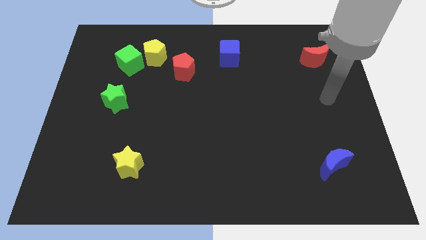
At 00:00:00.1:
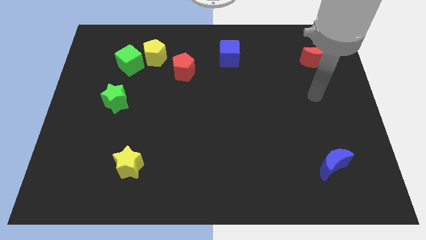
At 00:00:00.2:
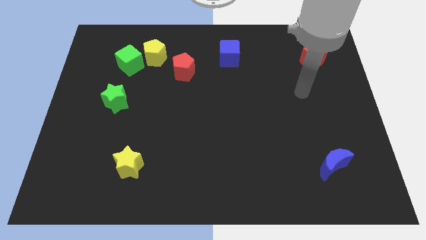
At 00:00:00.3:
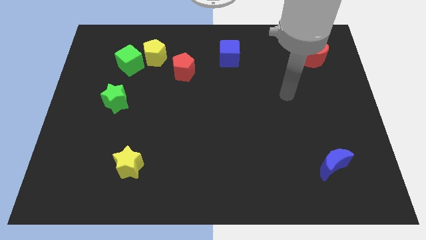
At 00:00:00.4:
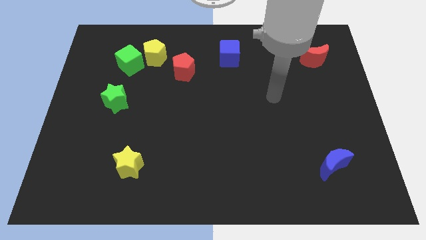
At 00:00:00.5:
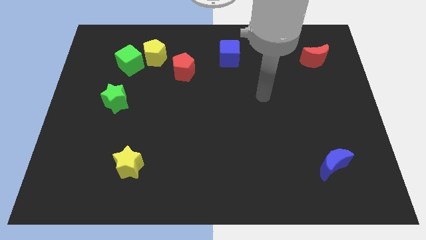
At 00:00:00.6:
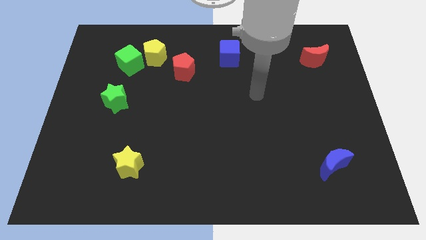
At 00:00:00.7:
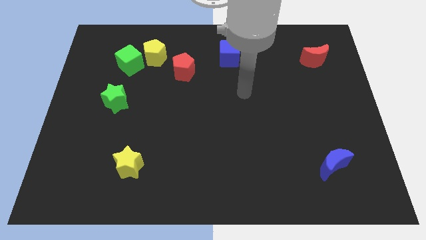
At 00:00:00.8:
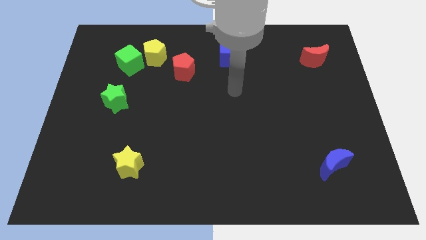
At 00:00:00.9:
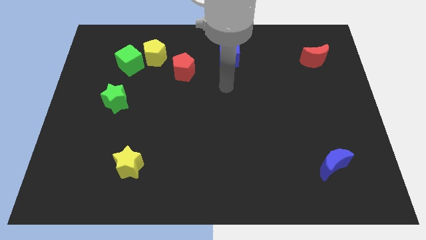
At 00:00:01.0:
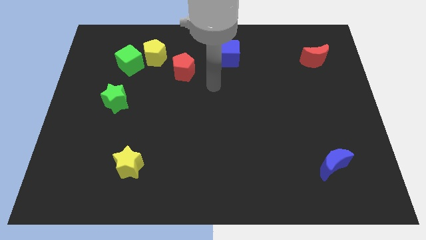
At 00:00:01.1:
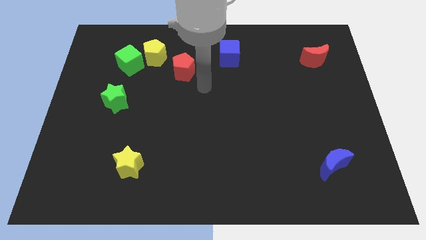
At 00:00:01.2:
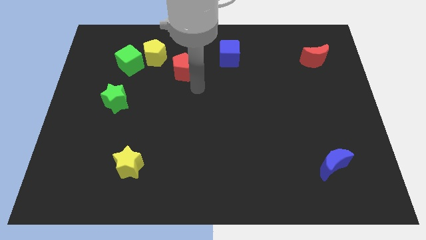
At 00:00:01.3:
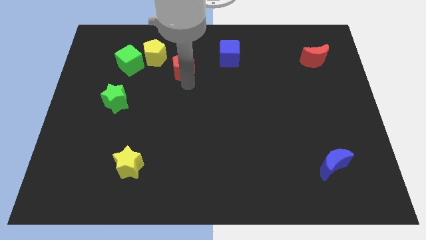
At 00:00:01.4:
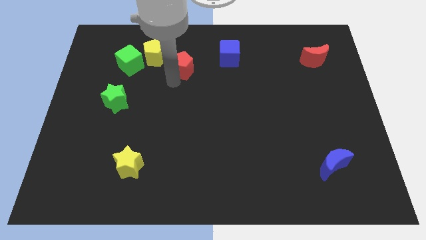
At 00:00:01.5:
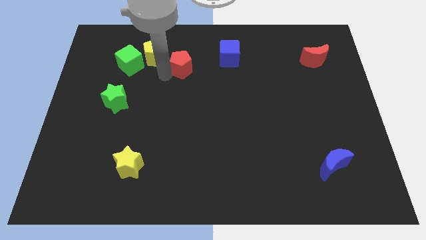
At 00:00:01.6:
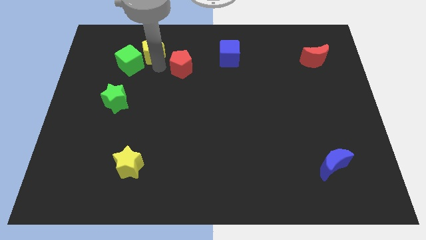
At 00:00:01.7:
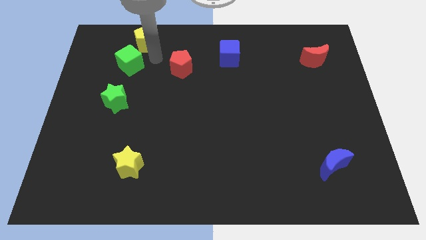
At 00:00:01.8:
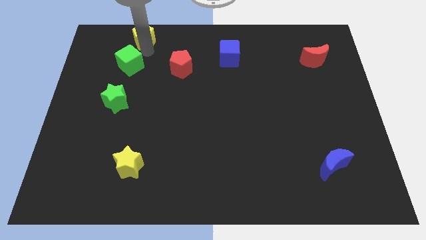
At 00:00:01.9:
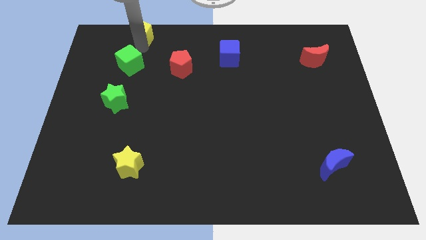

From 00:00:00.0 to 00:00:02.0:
move the green cube away from the yellow pentagon

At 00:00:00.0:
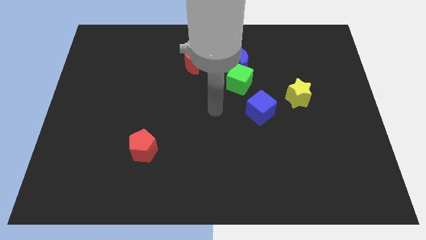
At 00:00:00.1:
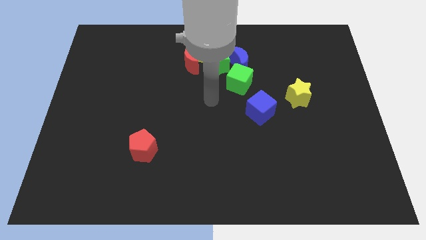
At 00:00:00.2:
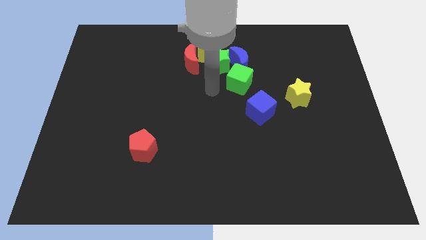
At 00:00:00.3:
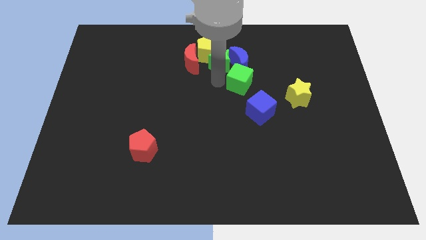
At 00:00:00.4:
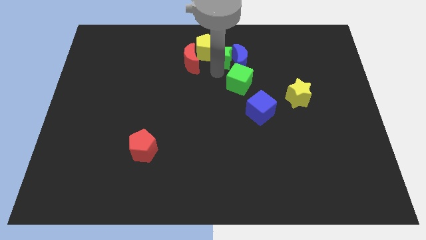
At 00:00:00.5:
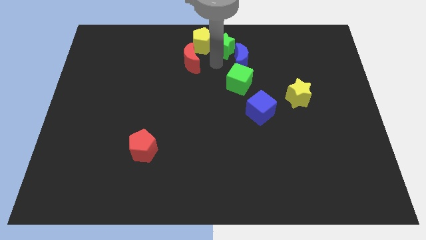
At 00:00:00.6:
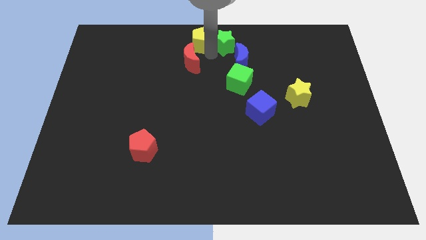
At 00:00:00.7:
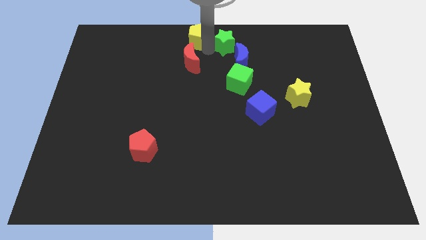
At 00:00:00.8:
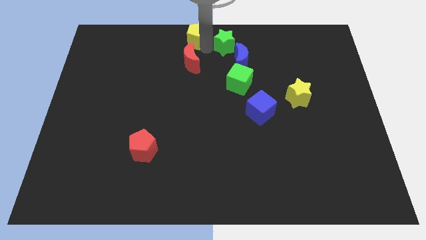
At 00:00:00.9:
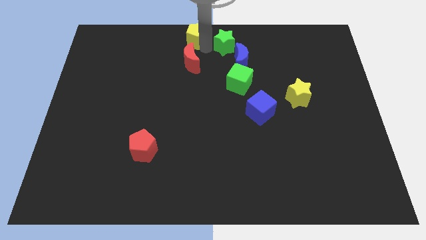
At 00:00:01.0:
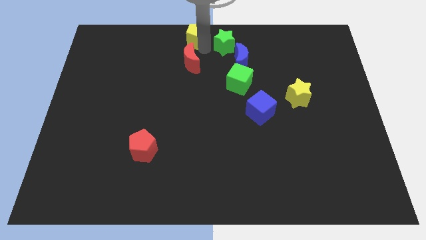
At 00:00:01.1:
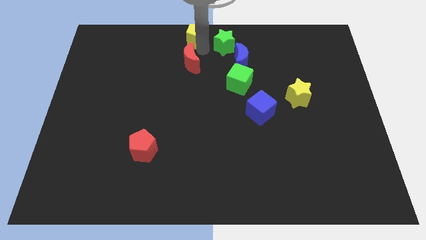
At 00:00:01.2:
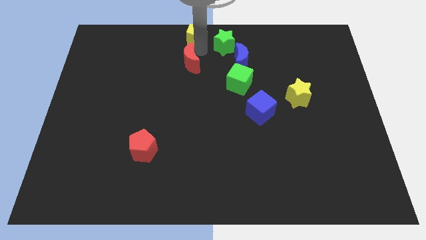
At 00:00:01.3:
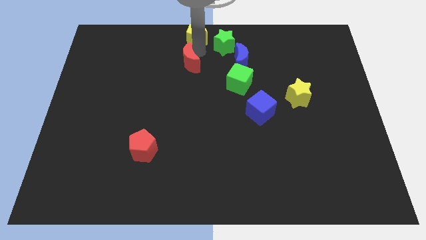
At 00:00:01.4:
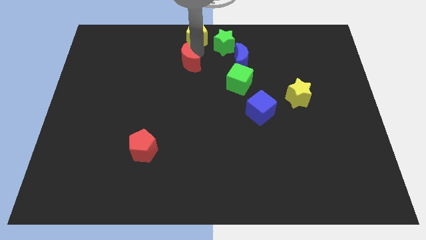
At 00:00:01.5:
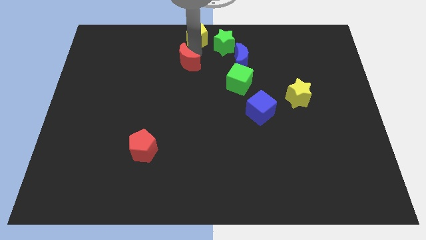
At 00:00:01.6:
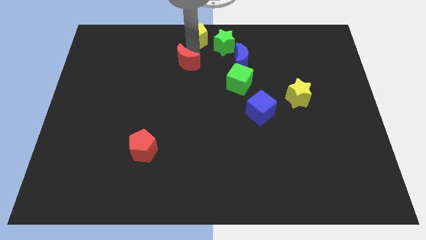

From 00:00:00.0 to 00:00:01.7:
move the red moon away from the yellow pentagon and green star

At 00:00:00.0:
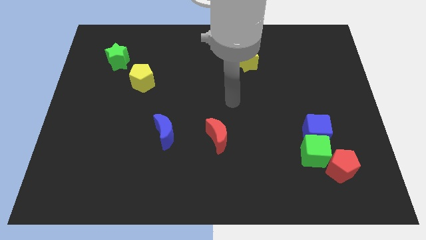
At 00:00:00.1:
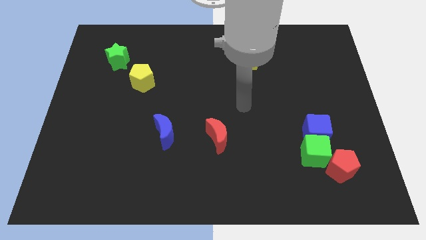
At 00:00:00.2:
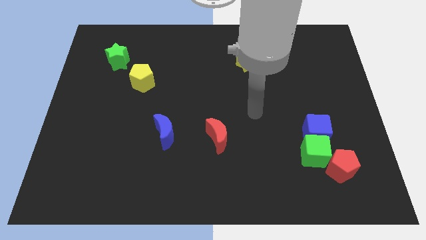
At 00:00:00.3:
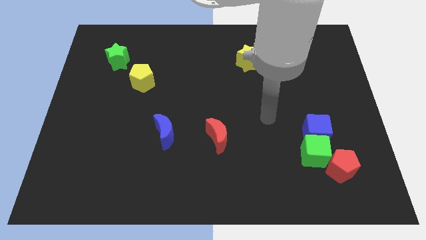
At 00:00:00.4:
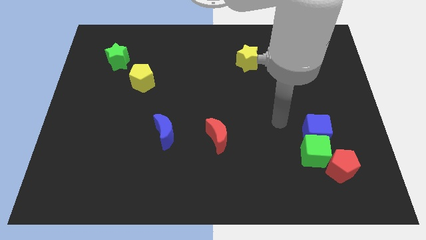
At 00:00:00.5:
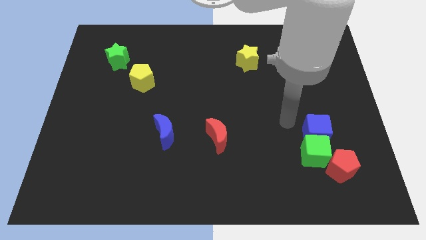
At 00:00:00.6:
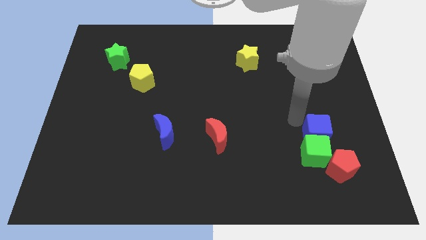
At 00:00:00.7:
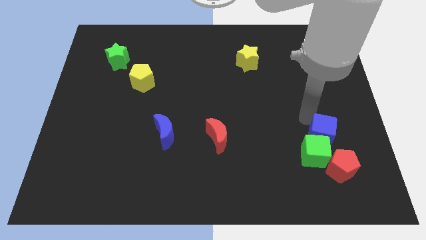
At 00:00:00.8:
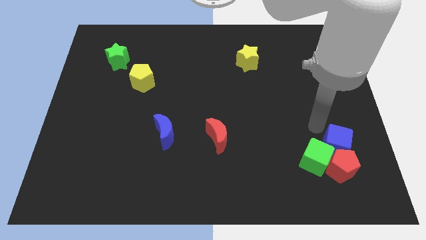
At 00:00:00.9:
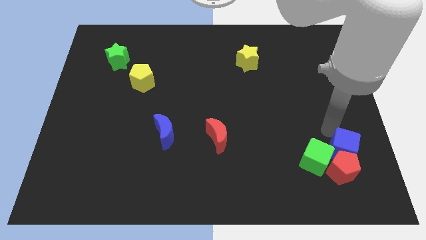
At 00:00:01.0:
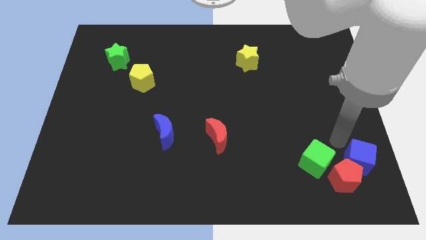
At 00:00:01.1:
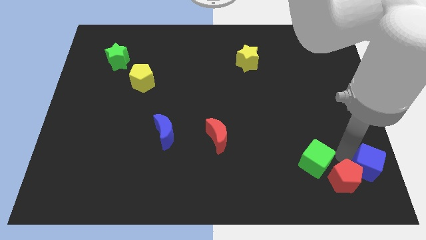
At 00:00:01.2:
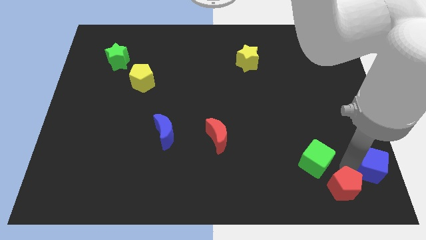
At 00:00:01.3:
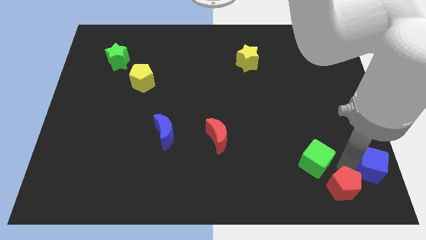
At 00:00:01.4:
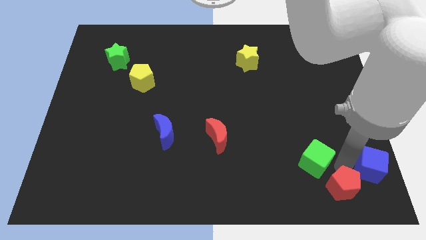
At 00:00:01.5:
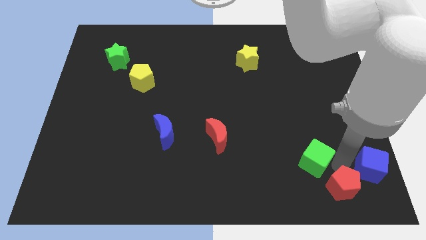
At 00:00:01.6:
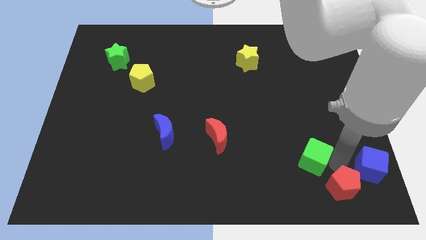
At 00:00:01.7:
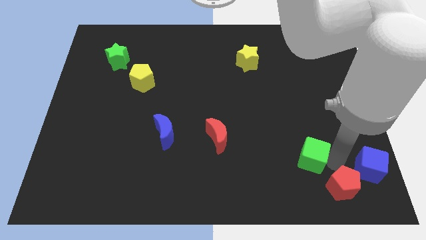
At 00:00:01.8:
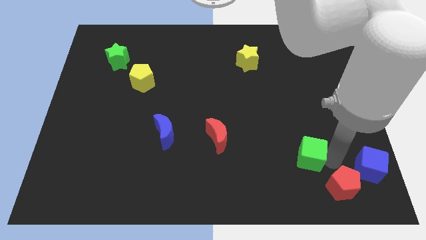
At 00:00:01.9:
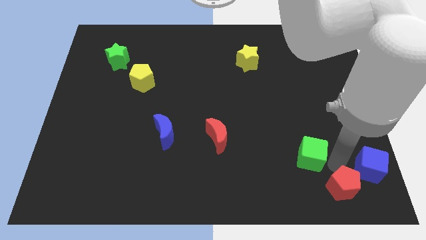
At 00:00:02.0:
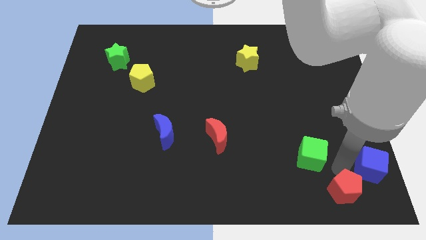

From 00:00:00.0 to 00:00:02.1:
move the green cube away from the blue cube and red pentagon

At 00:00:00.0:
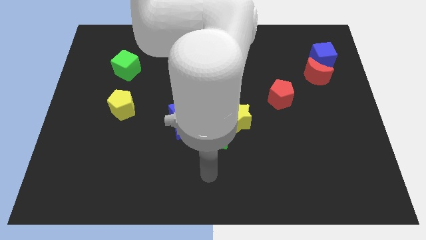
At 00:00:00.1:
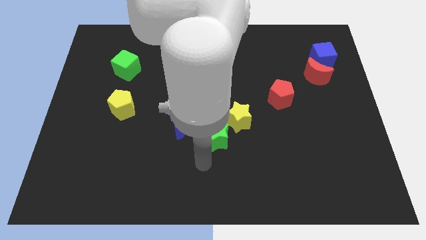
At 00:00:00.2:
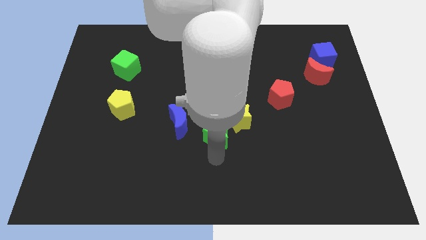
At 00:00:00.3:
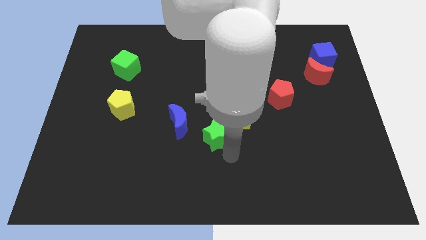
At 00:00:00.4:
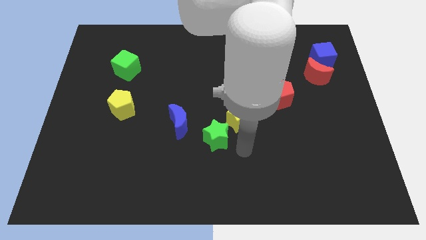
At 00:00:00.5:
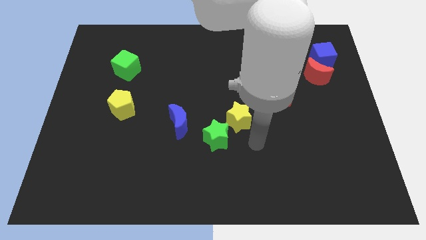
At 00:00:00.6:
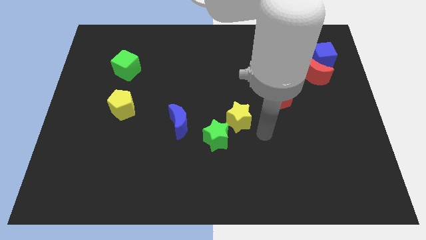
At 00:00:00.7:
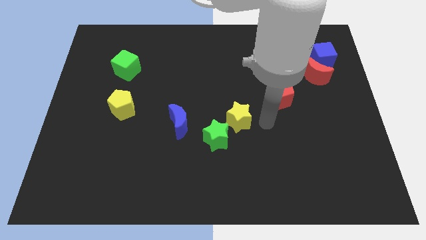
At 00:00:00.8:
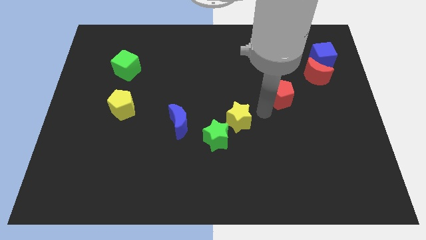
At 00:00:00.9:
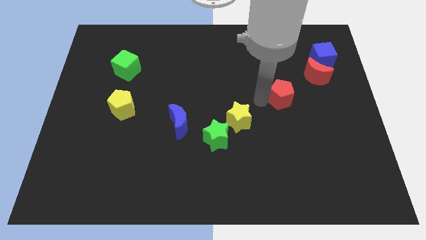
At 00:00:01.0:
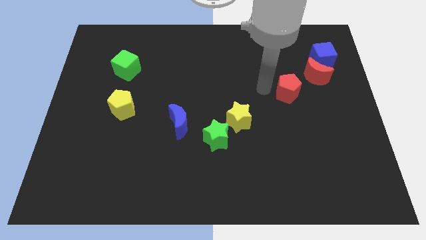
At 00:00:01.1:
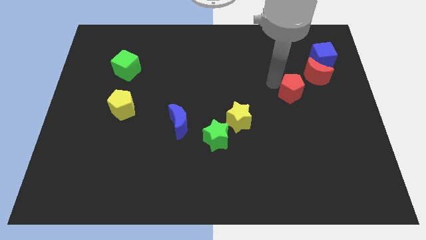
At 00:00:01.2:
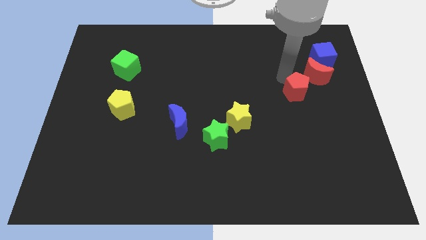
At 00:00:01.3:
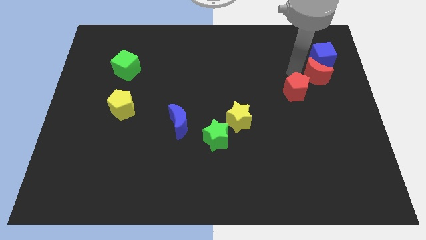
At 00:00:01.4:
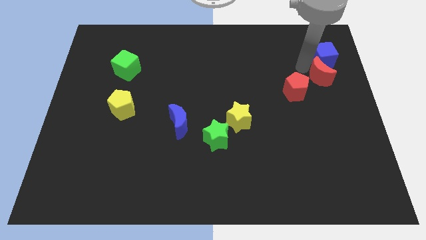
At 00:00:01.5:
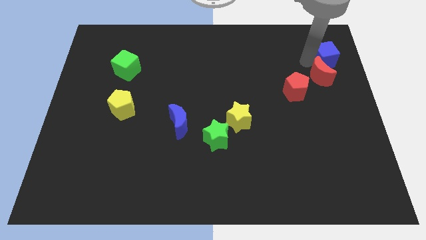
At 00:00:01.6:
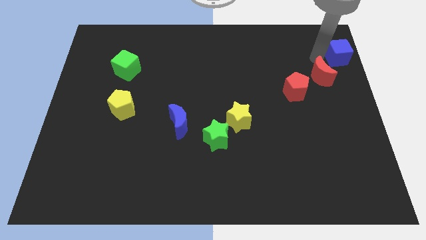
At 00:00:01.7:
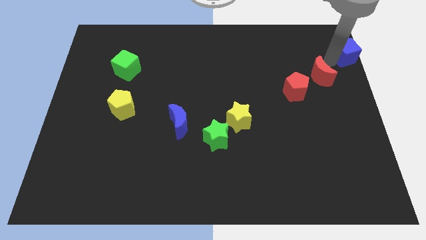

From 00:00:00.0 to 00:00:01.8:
move the red moon away from the blue cube

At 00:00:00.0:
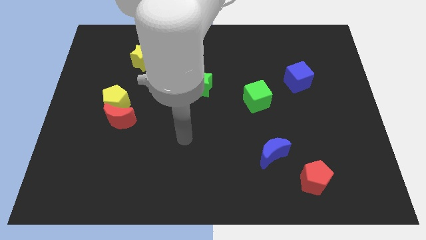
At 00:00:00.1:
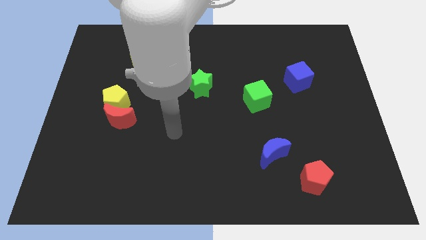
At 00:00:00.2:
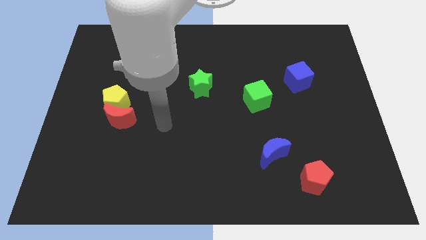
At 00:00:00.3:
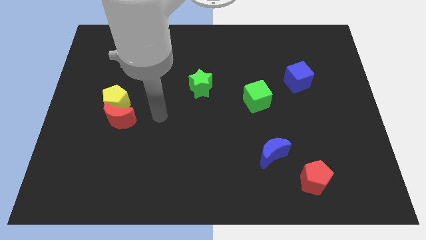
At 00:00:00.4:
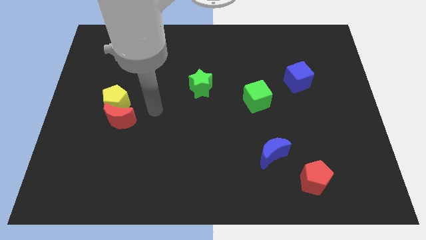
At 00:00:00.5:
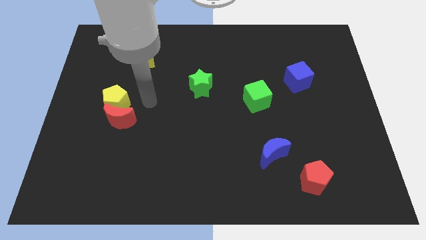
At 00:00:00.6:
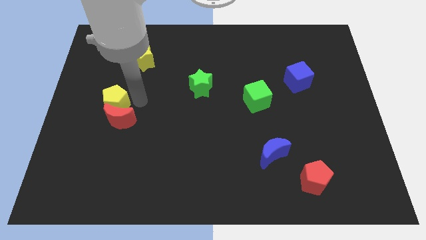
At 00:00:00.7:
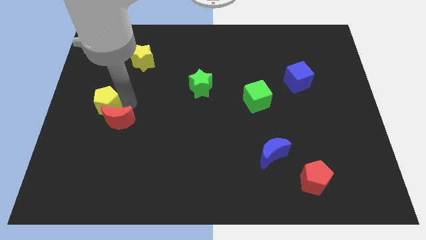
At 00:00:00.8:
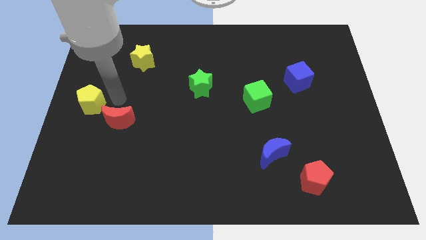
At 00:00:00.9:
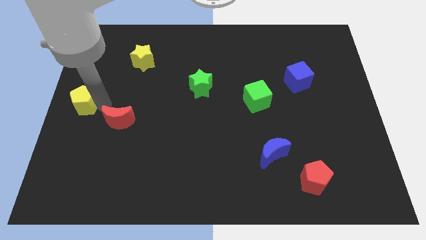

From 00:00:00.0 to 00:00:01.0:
pull the red moon apart from the yellow pentagon

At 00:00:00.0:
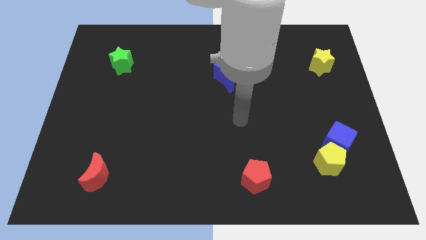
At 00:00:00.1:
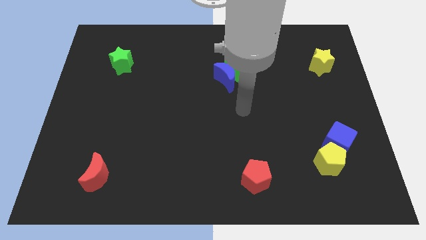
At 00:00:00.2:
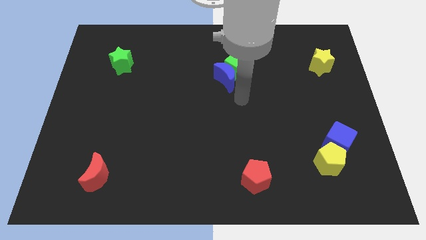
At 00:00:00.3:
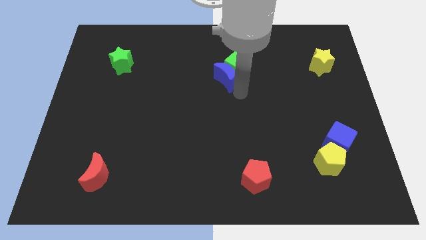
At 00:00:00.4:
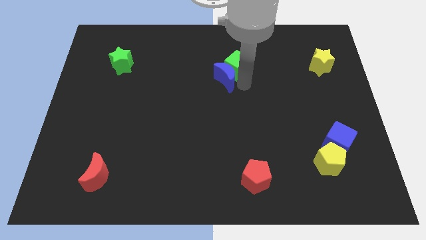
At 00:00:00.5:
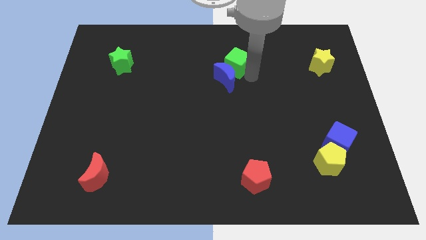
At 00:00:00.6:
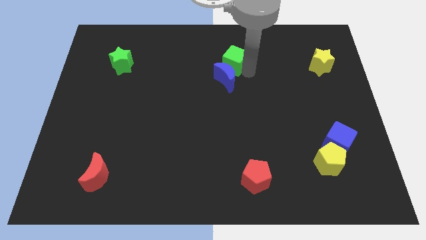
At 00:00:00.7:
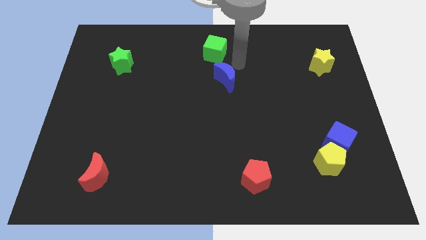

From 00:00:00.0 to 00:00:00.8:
move the blue moon away from the green cube
